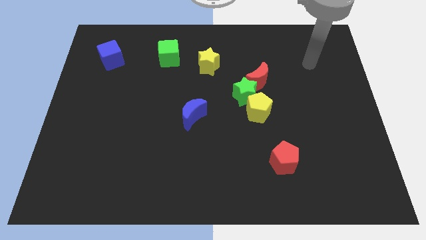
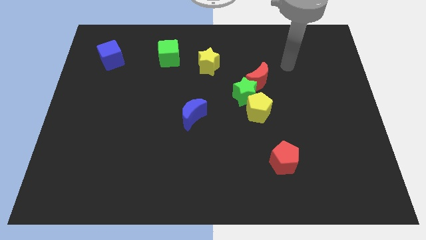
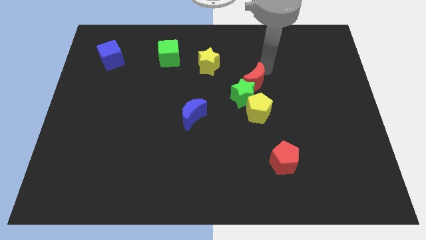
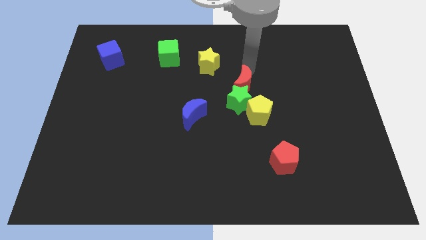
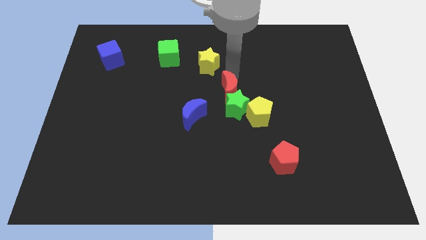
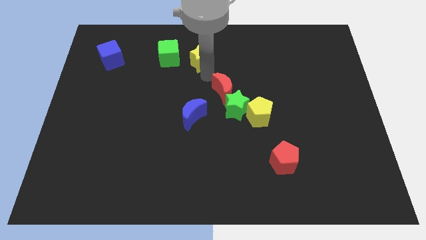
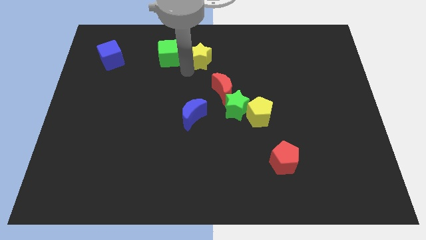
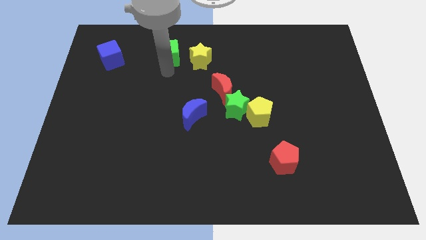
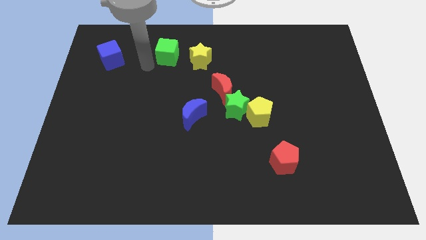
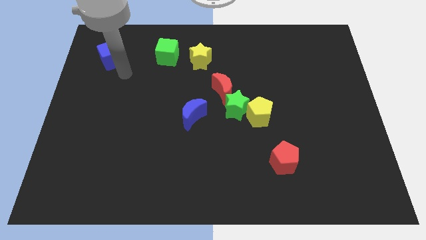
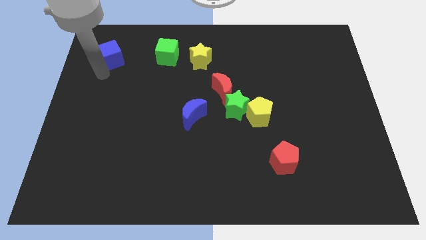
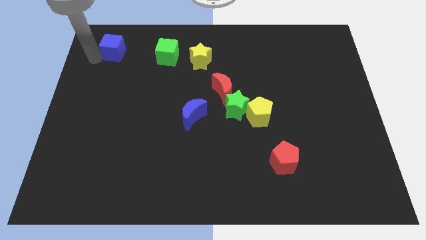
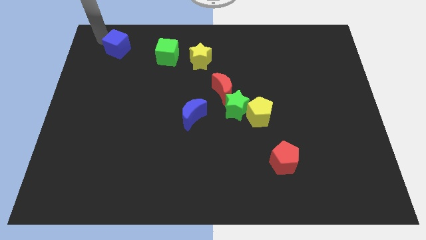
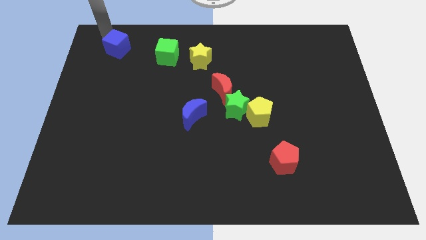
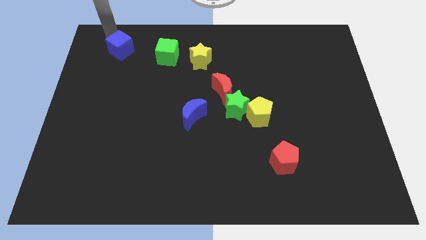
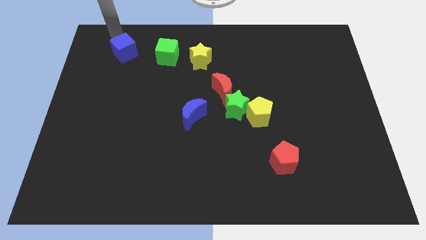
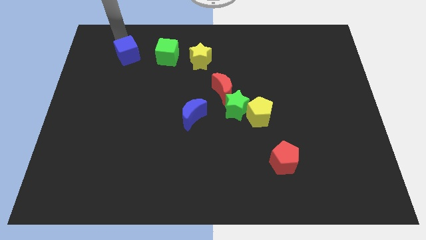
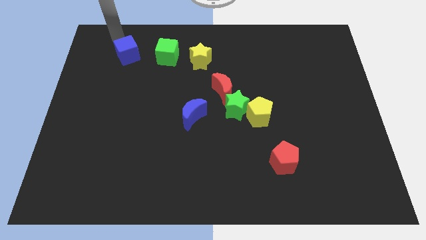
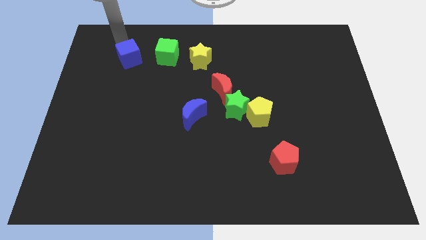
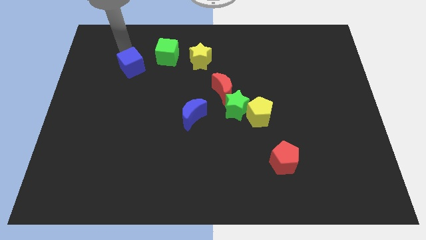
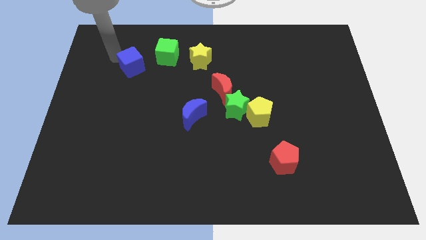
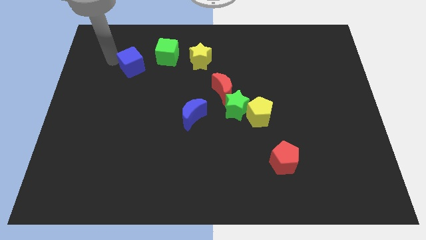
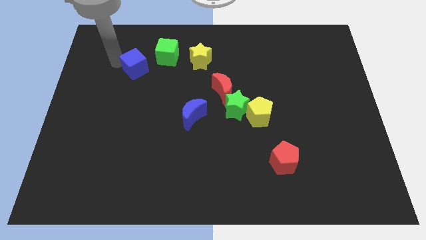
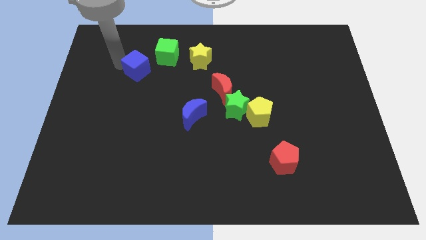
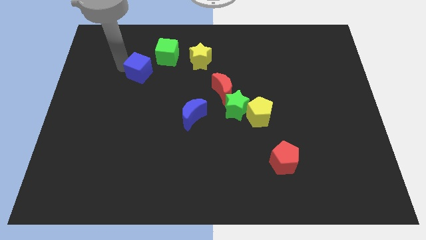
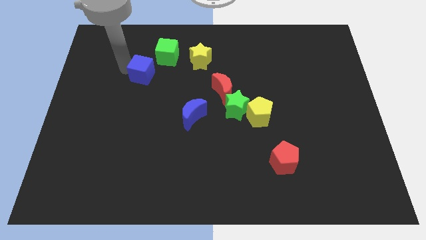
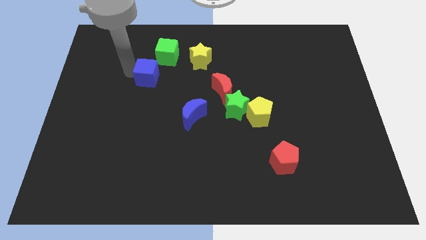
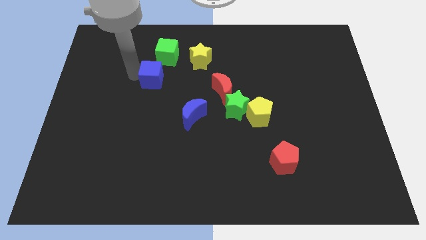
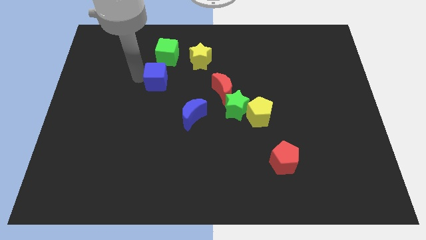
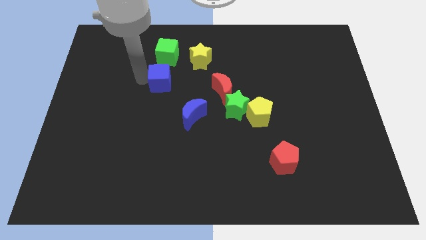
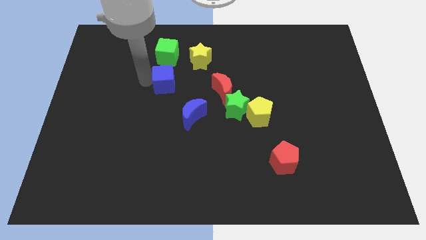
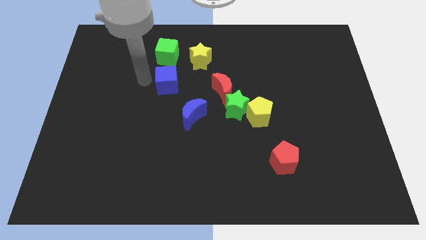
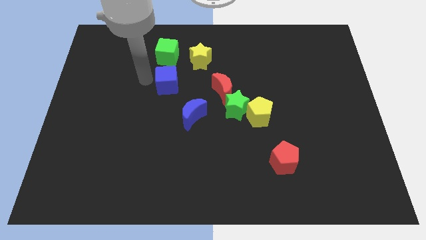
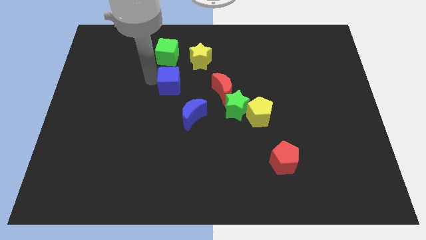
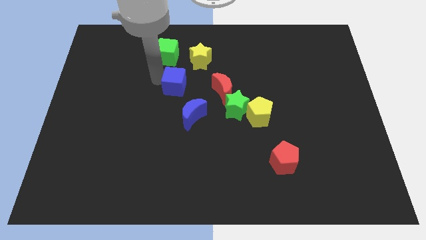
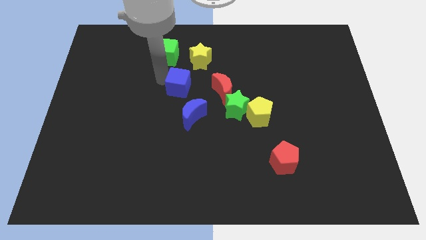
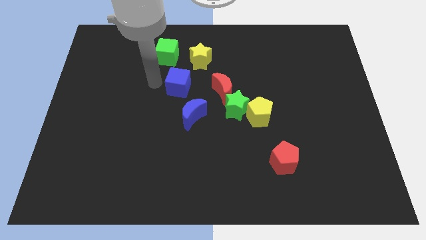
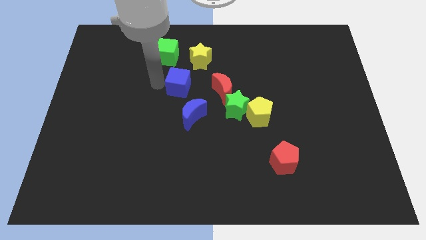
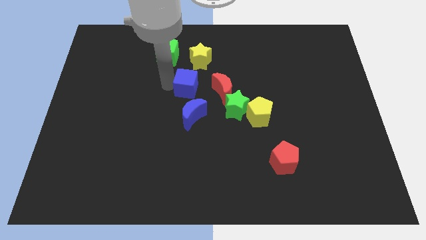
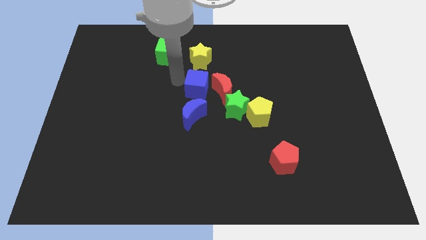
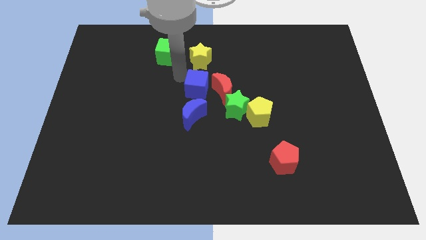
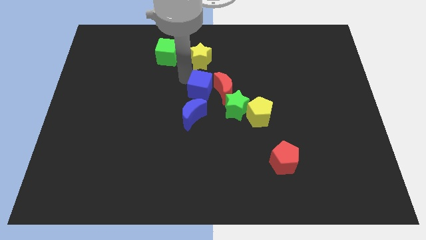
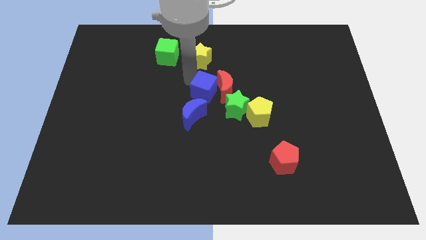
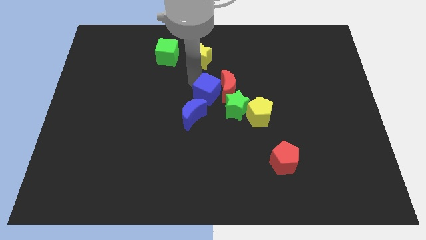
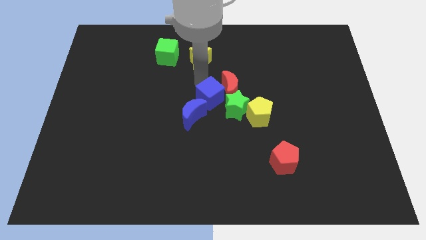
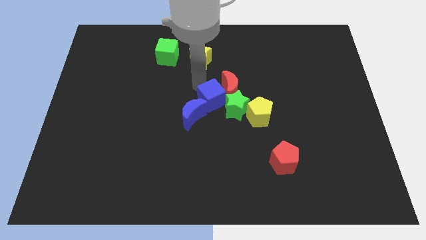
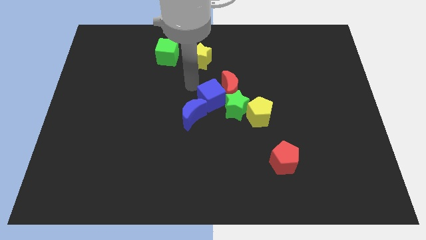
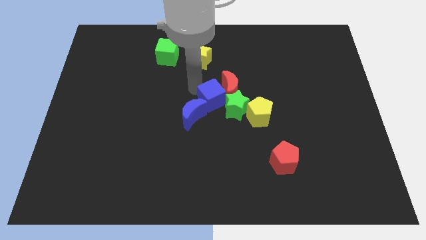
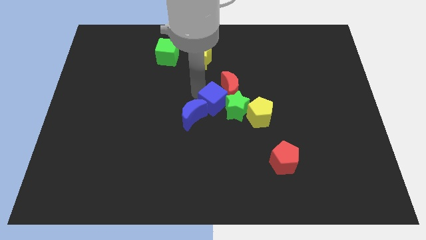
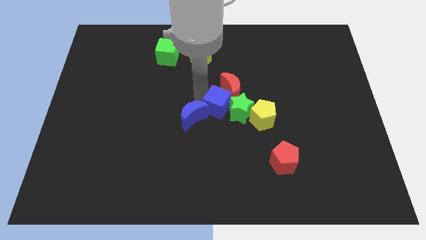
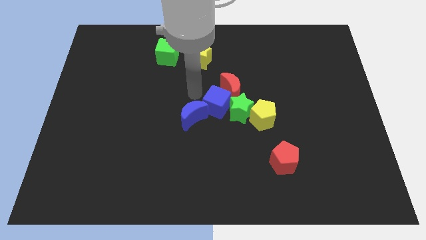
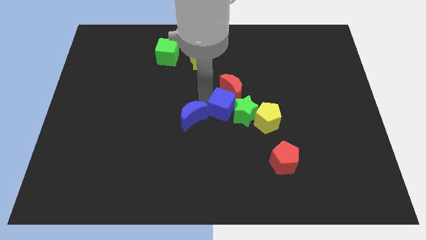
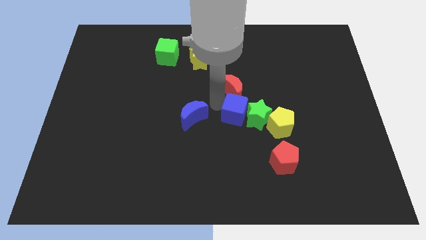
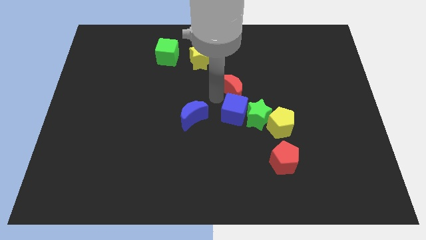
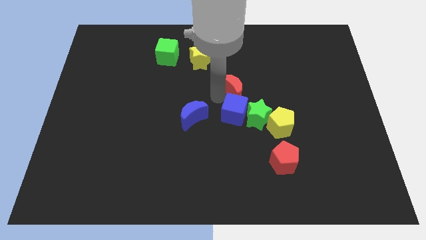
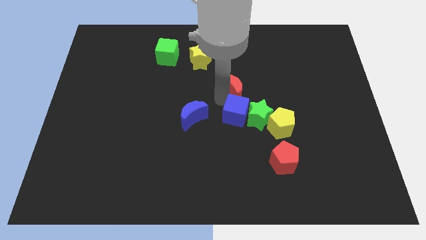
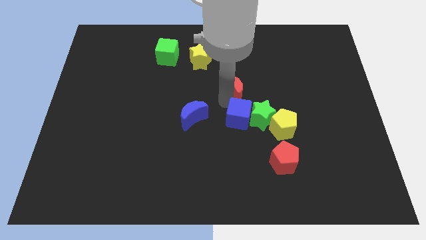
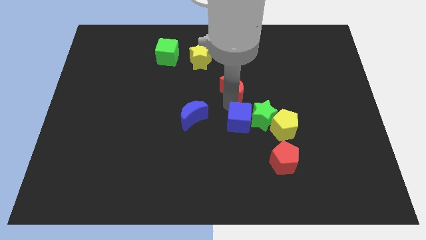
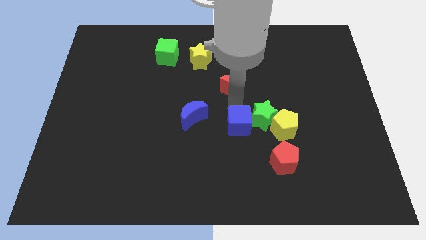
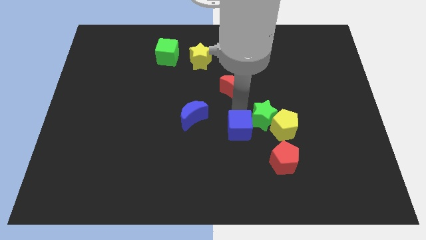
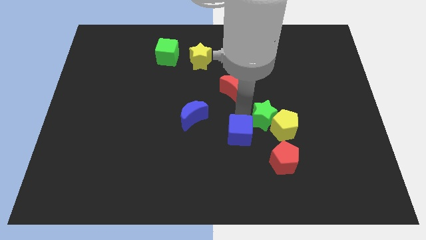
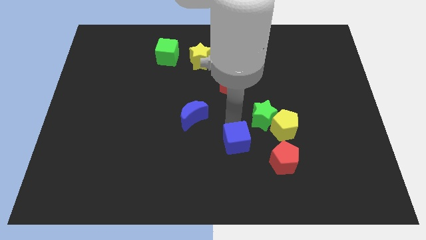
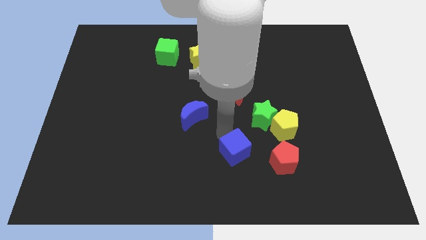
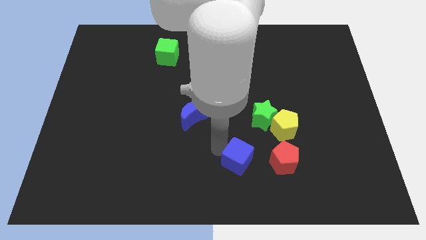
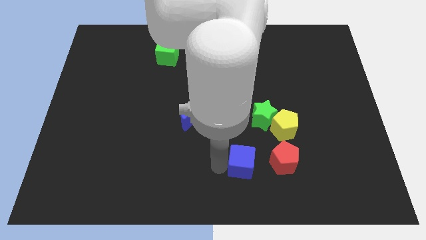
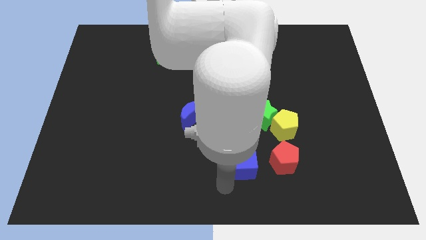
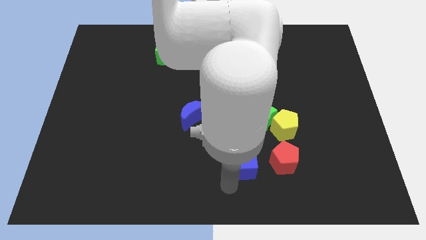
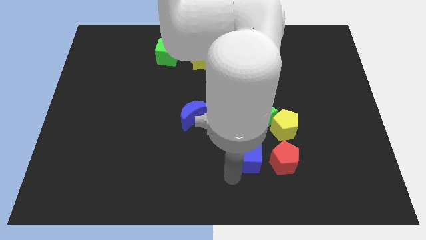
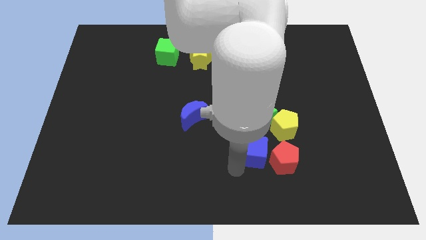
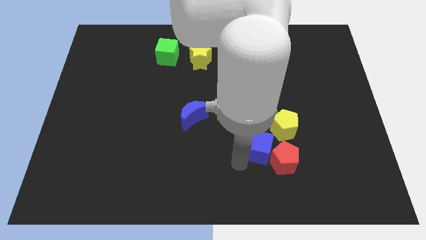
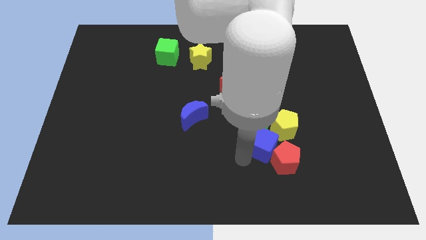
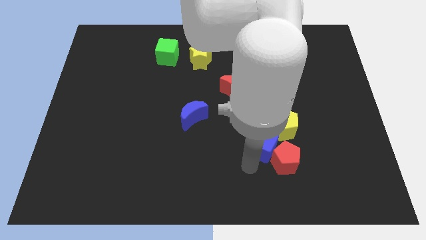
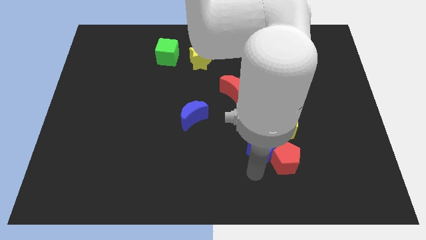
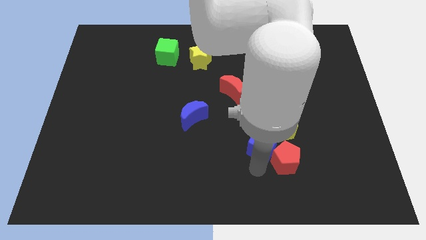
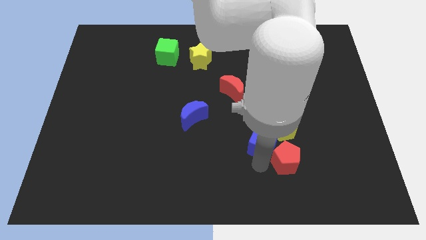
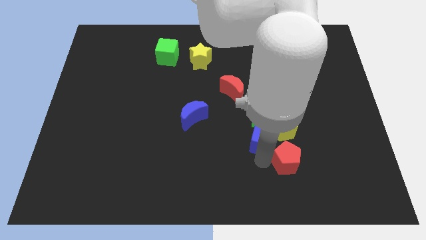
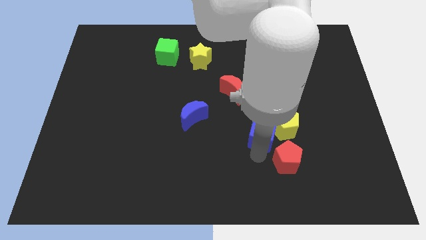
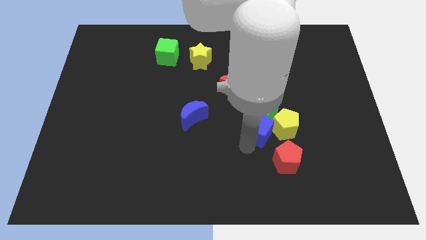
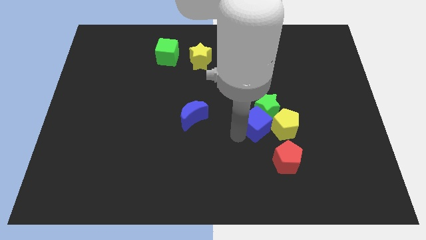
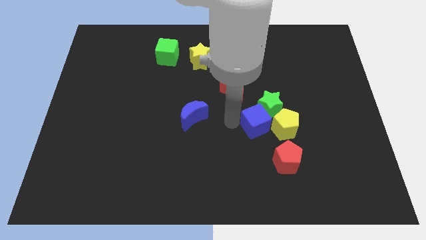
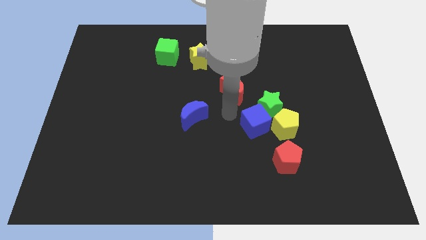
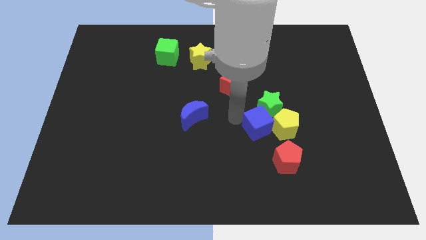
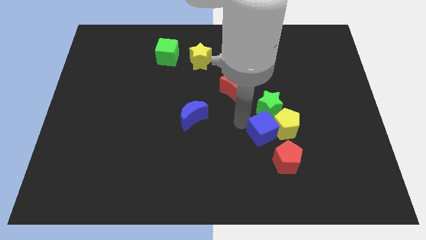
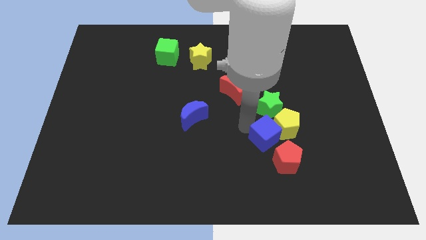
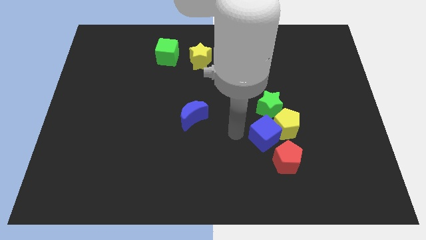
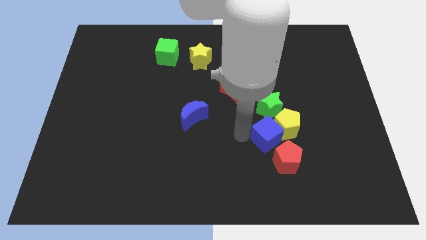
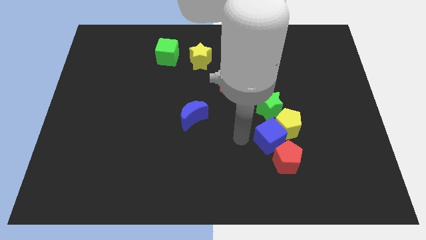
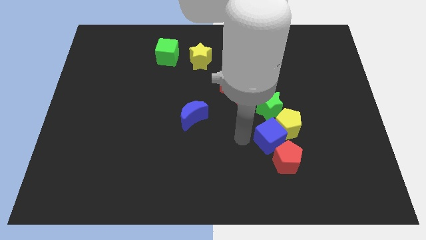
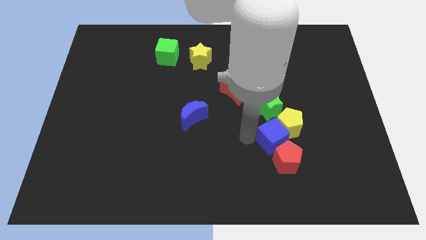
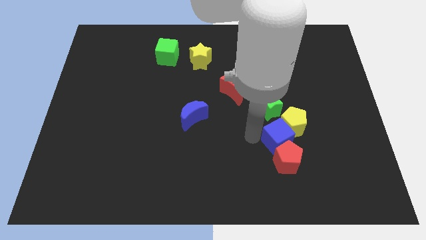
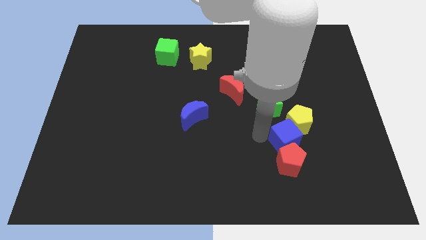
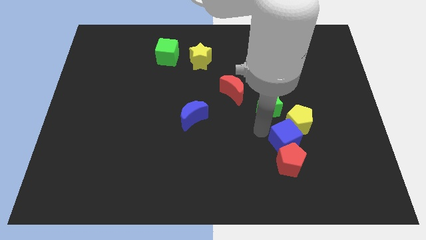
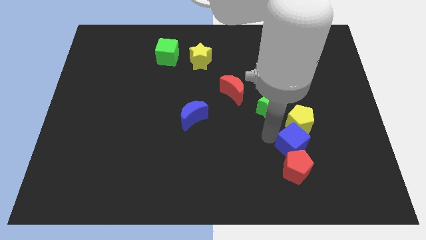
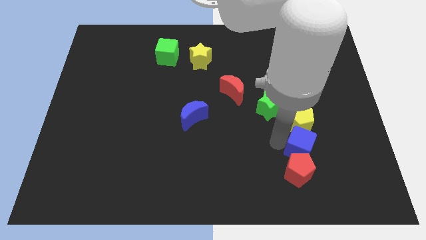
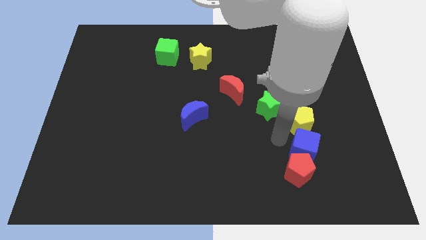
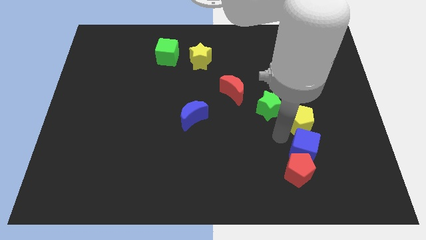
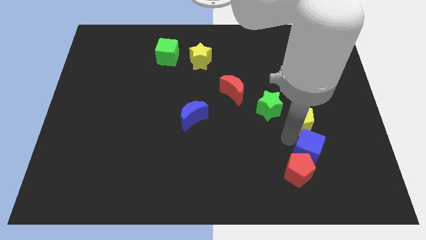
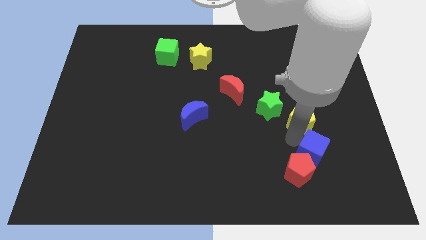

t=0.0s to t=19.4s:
move the blue cube right of the red pentagon
